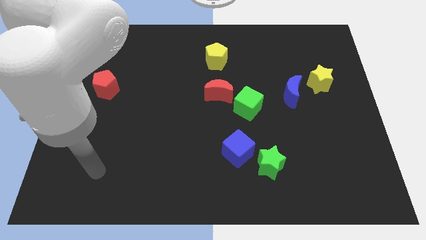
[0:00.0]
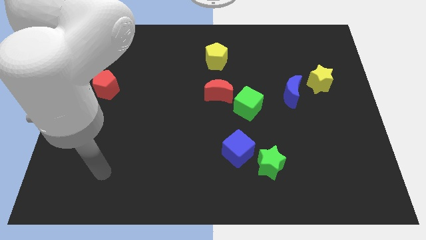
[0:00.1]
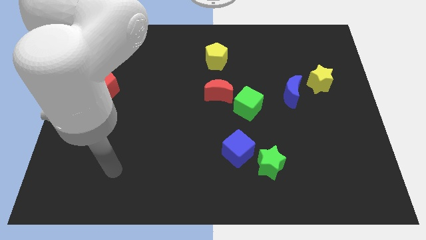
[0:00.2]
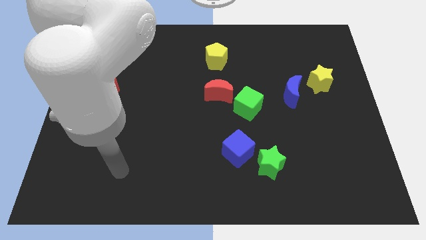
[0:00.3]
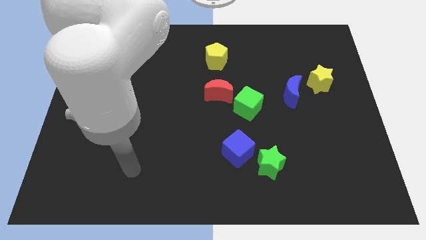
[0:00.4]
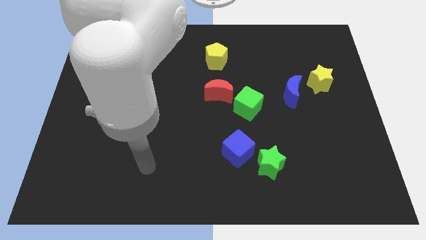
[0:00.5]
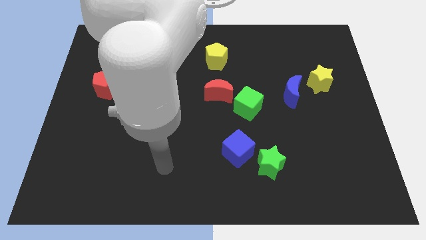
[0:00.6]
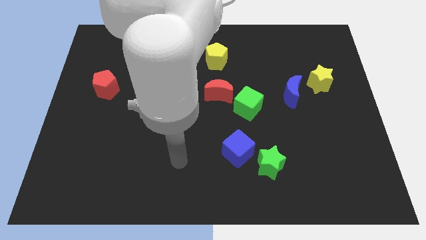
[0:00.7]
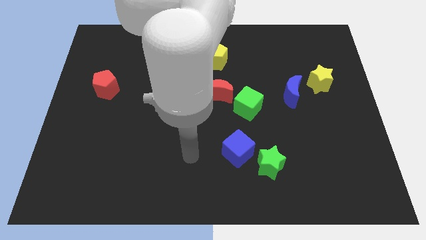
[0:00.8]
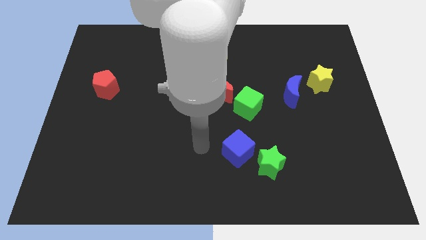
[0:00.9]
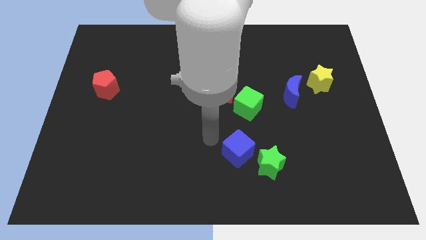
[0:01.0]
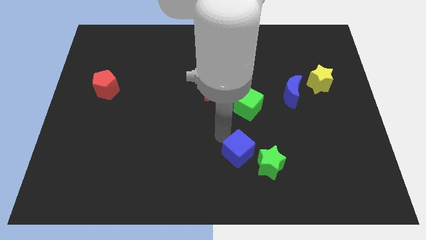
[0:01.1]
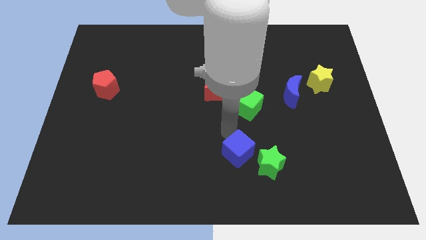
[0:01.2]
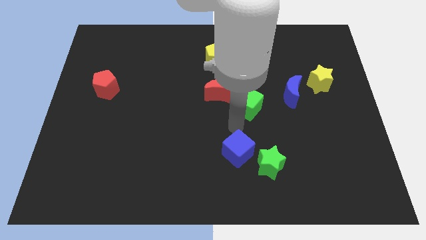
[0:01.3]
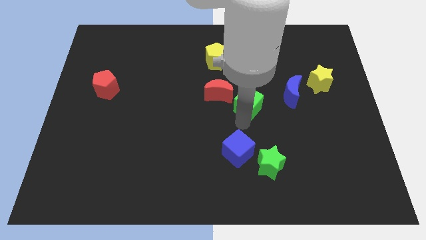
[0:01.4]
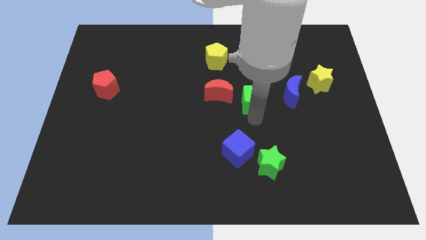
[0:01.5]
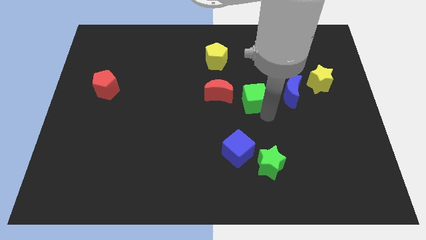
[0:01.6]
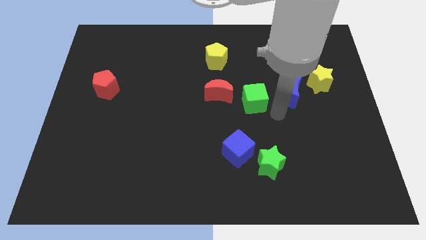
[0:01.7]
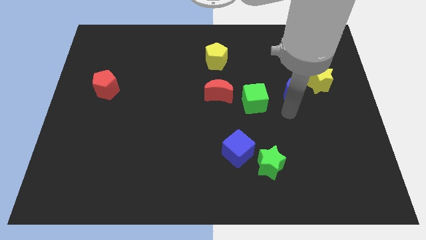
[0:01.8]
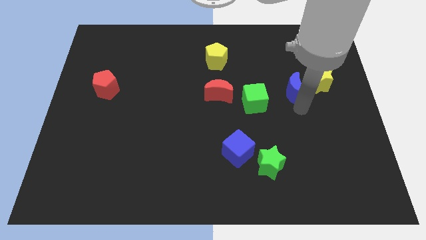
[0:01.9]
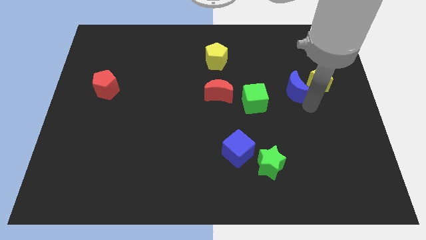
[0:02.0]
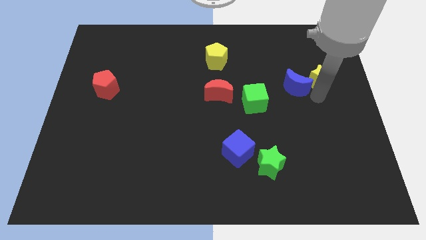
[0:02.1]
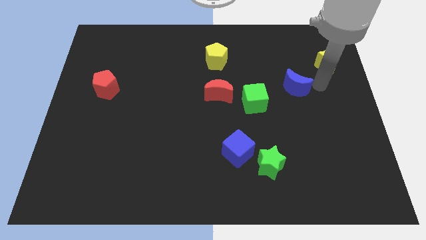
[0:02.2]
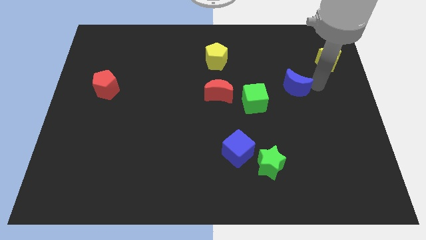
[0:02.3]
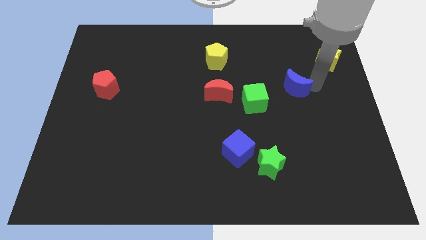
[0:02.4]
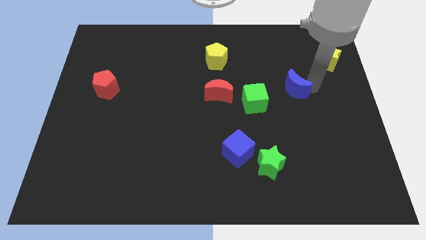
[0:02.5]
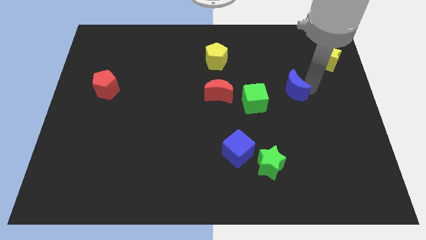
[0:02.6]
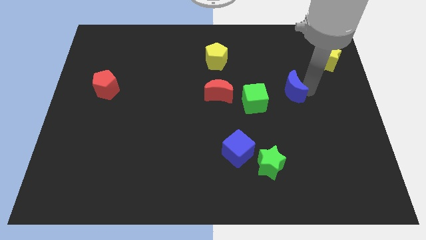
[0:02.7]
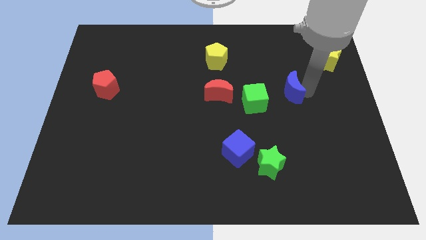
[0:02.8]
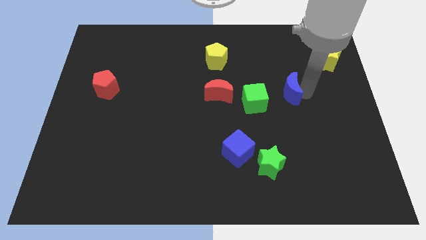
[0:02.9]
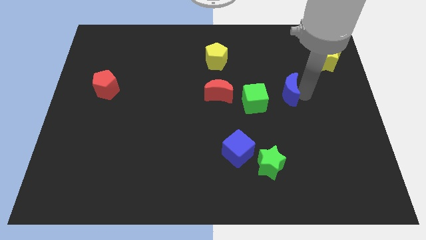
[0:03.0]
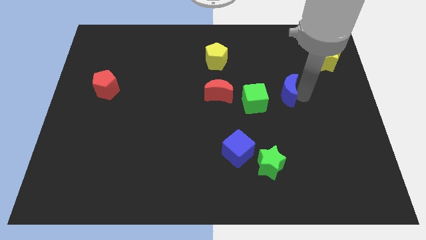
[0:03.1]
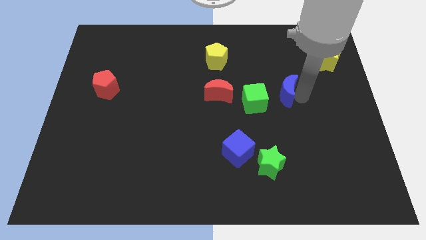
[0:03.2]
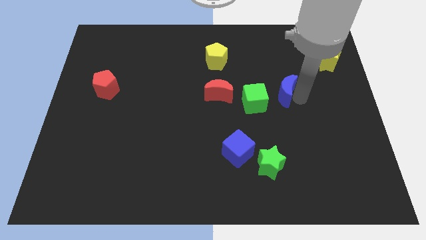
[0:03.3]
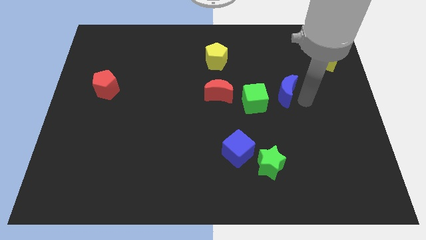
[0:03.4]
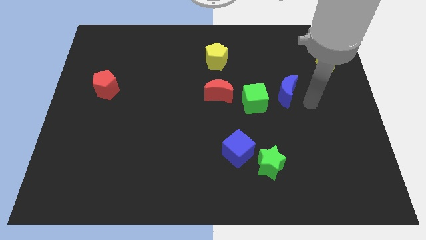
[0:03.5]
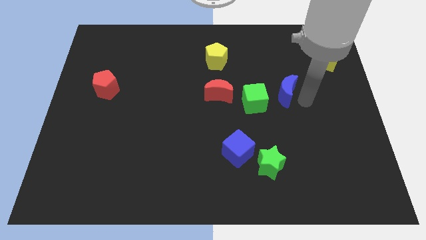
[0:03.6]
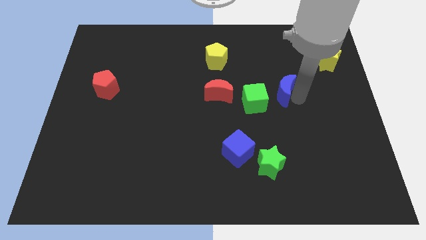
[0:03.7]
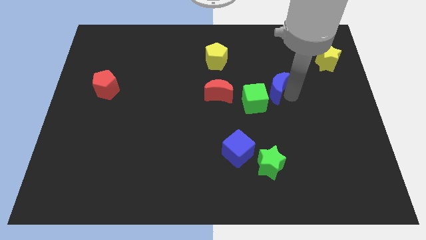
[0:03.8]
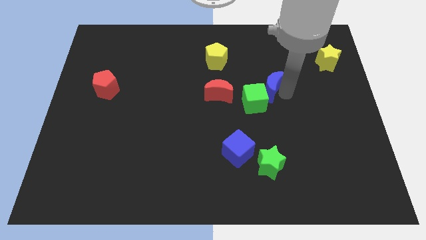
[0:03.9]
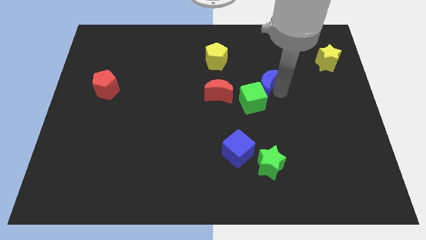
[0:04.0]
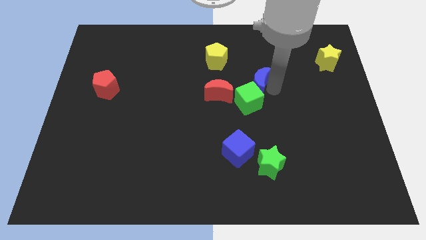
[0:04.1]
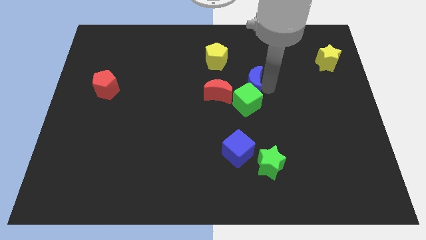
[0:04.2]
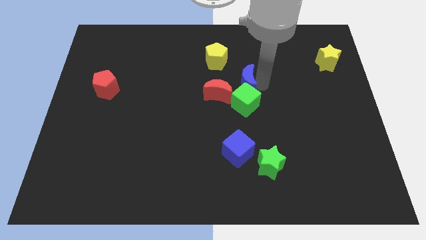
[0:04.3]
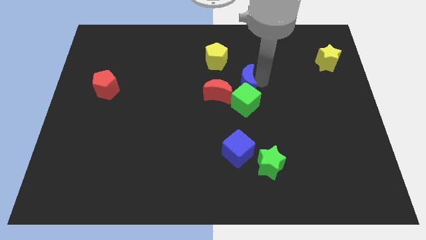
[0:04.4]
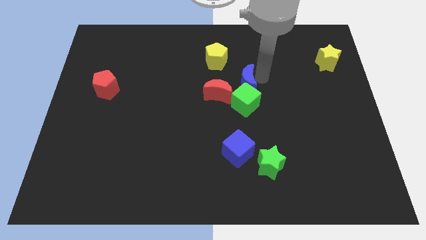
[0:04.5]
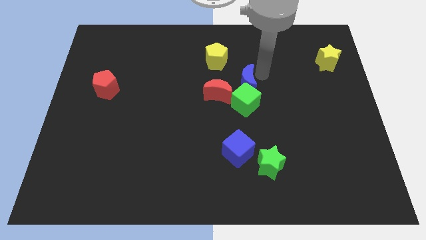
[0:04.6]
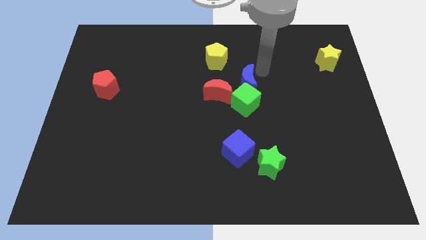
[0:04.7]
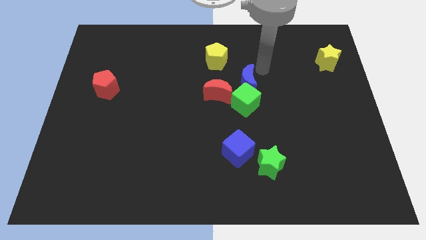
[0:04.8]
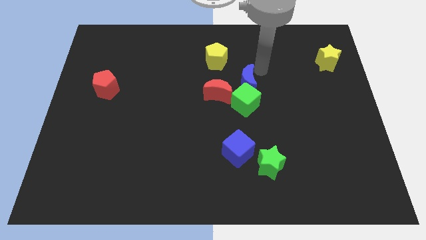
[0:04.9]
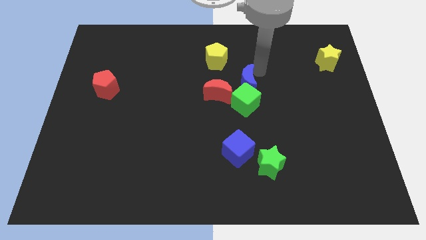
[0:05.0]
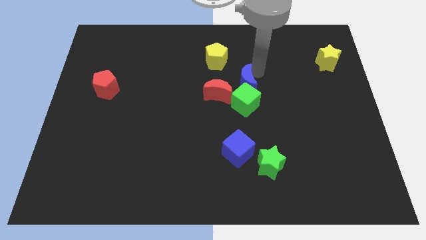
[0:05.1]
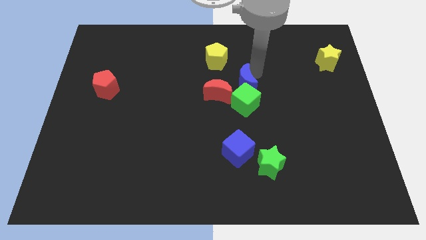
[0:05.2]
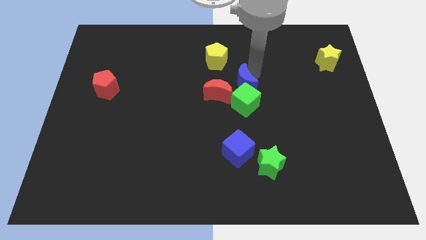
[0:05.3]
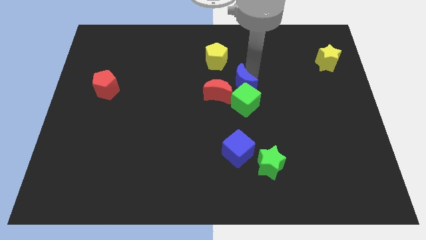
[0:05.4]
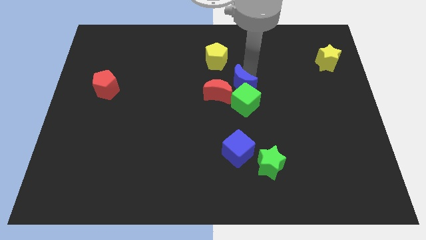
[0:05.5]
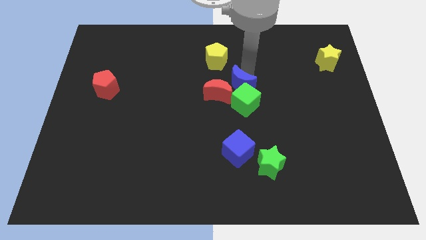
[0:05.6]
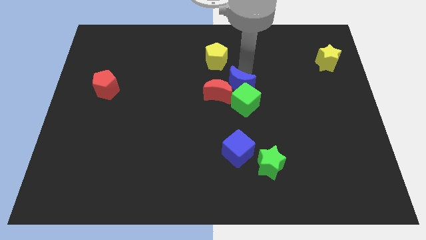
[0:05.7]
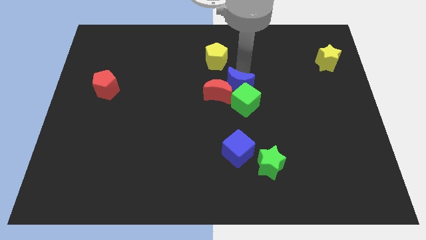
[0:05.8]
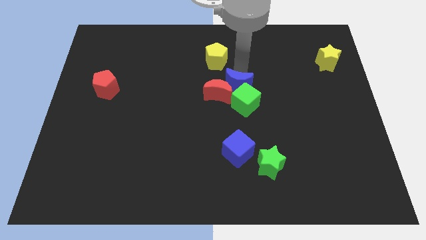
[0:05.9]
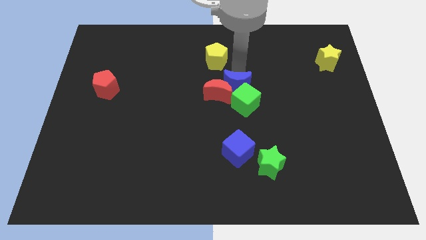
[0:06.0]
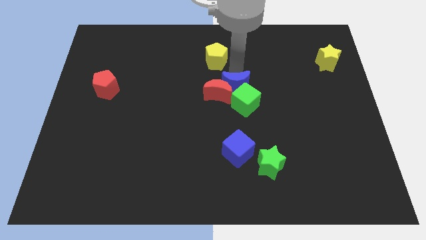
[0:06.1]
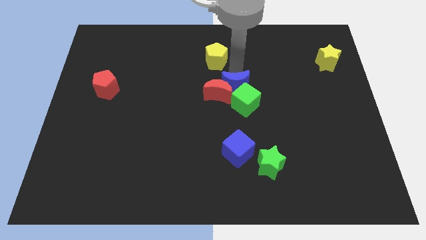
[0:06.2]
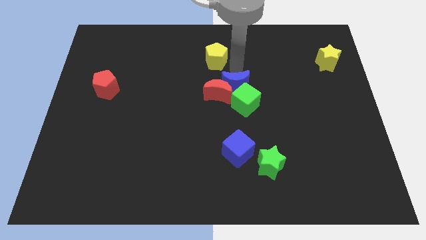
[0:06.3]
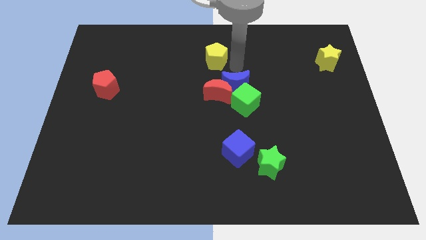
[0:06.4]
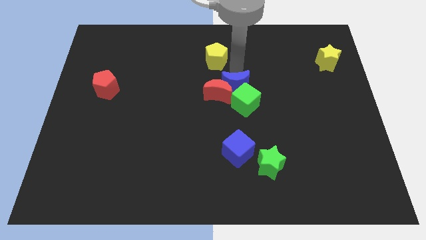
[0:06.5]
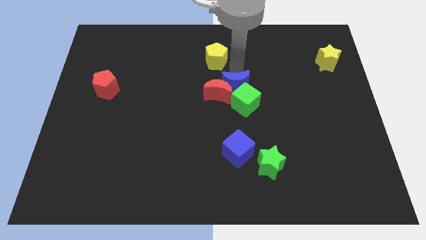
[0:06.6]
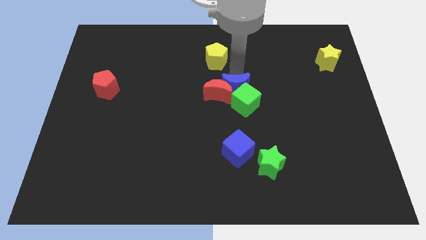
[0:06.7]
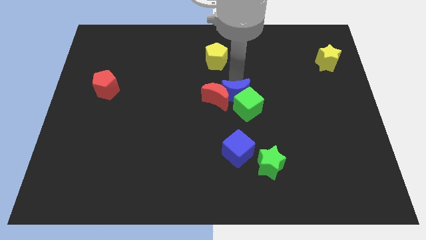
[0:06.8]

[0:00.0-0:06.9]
slide the blue moon to the top of the blue cube

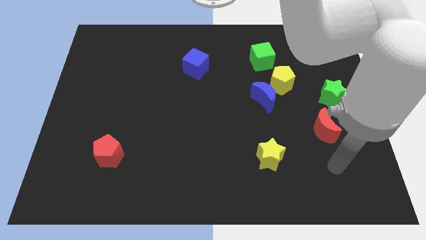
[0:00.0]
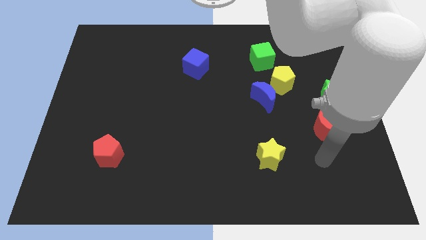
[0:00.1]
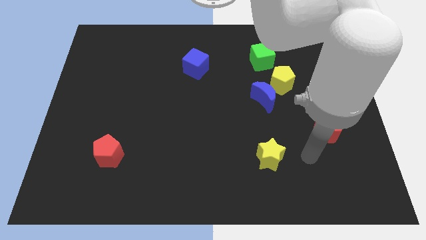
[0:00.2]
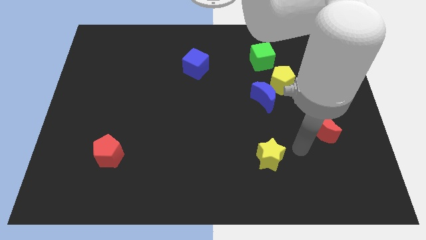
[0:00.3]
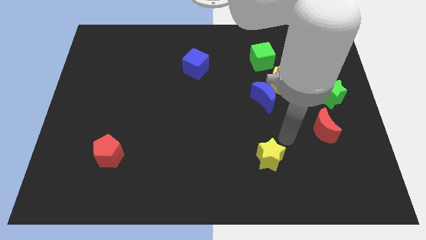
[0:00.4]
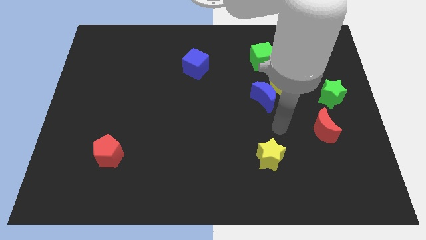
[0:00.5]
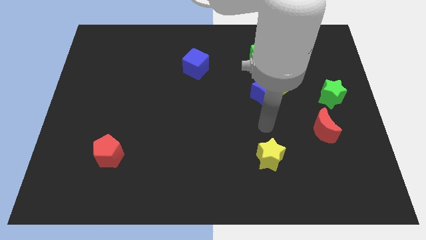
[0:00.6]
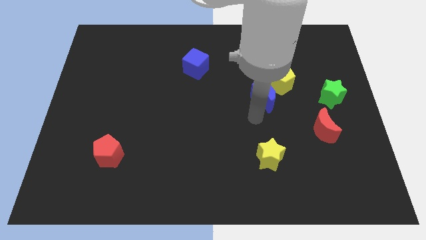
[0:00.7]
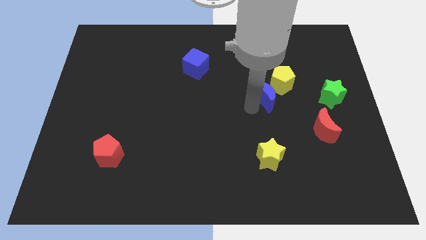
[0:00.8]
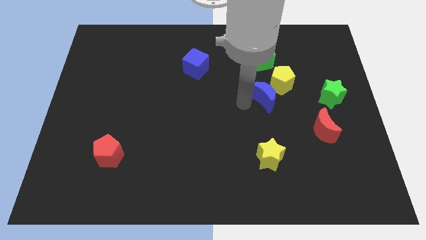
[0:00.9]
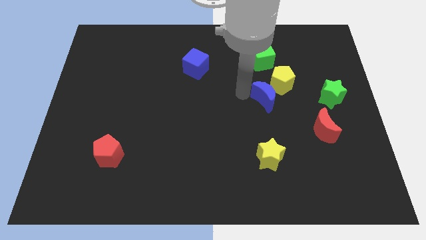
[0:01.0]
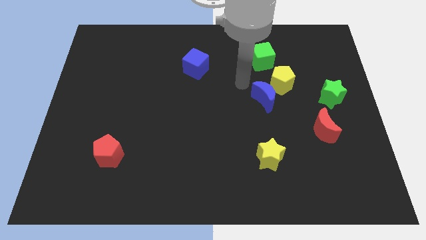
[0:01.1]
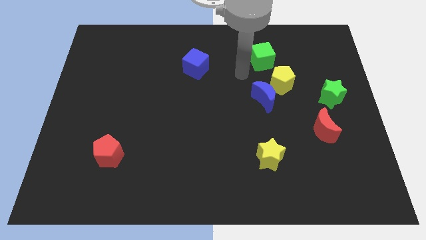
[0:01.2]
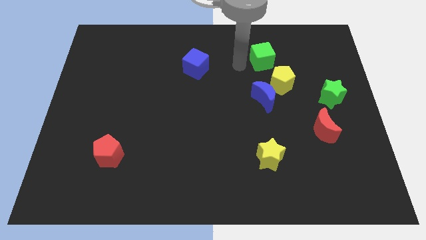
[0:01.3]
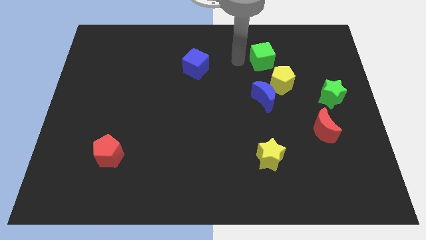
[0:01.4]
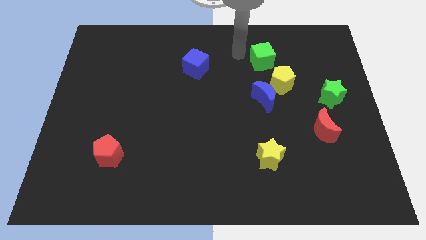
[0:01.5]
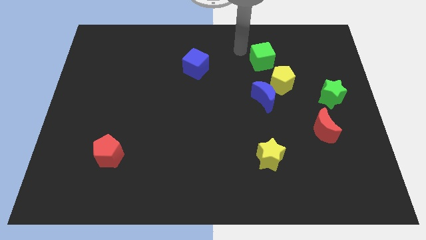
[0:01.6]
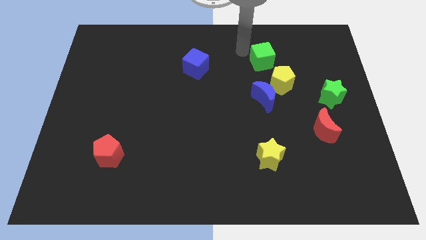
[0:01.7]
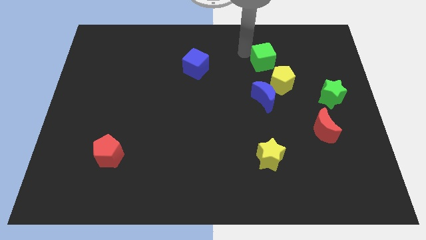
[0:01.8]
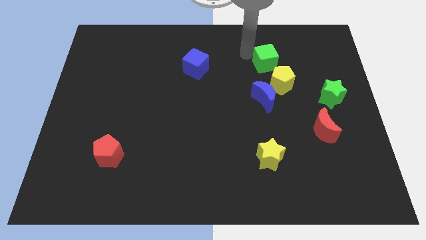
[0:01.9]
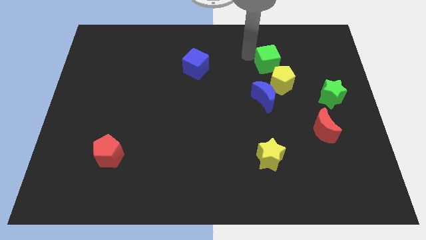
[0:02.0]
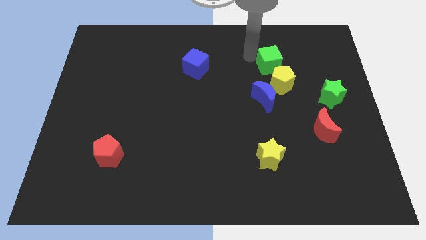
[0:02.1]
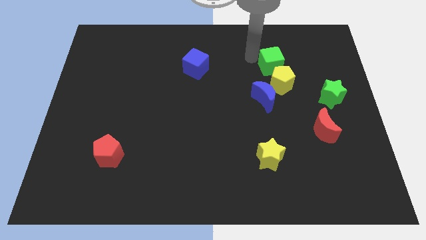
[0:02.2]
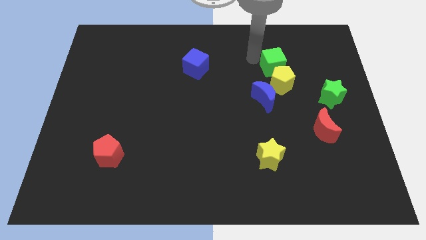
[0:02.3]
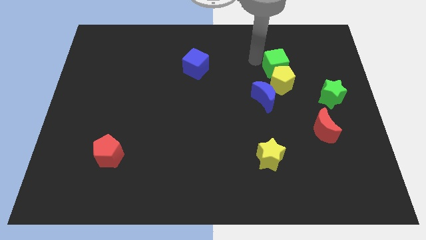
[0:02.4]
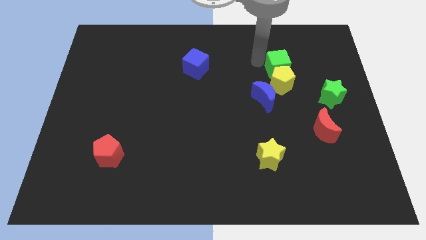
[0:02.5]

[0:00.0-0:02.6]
move the green cube to the top right side of the blue moon
